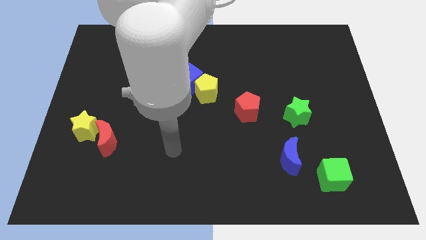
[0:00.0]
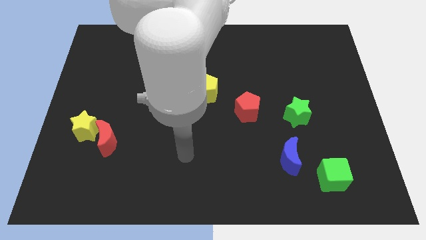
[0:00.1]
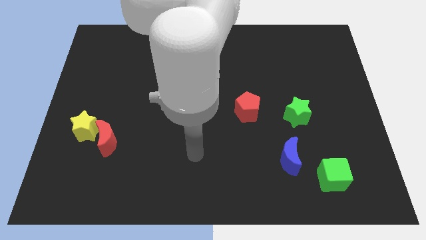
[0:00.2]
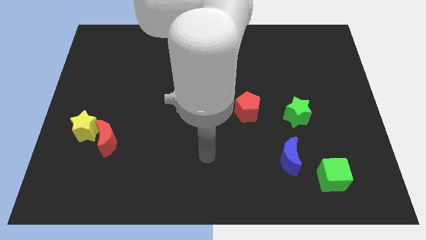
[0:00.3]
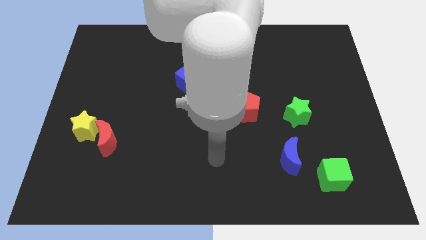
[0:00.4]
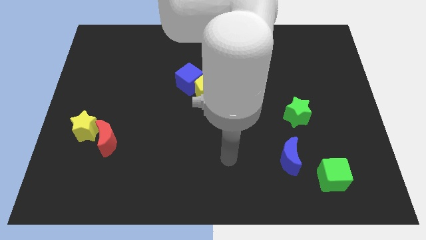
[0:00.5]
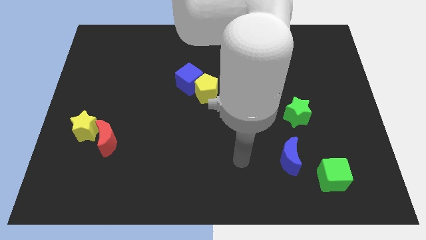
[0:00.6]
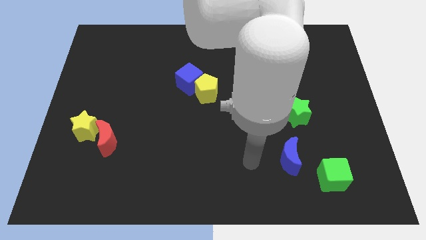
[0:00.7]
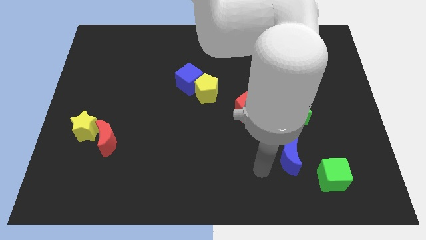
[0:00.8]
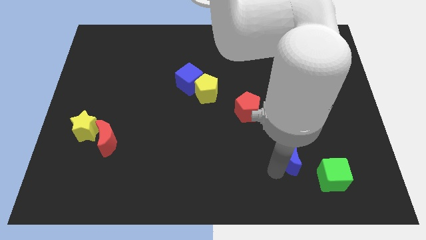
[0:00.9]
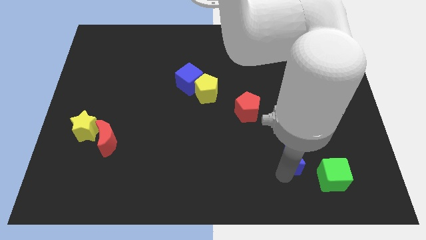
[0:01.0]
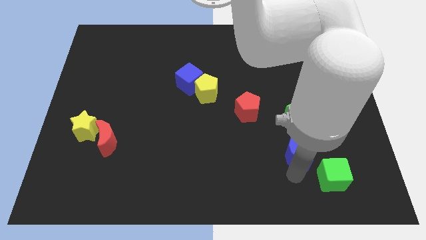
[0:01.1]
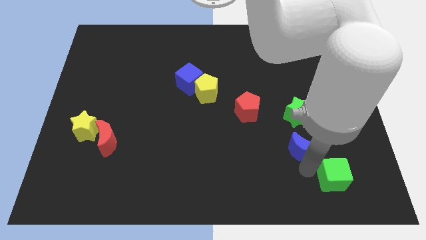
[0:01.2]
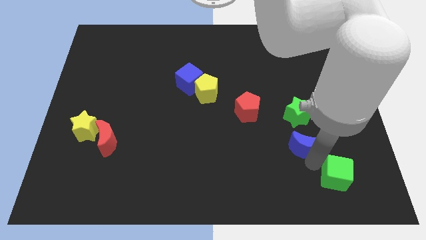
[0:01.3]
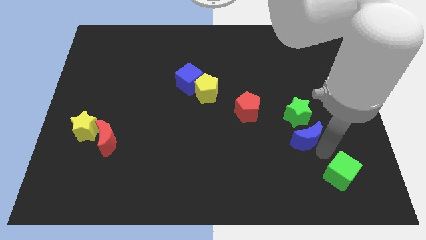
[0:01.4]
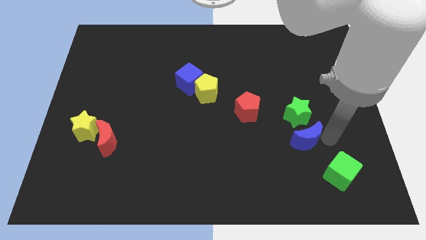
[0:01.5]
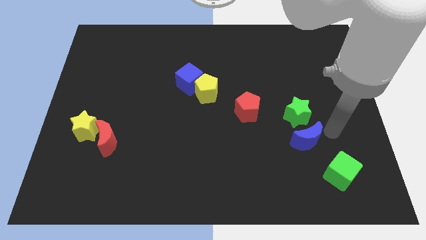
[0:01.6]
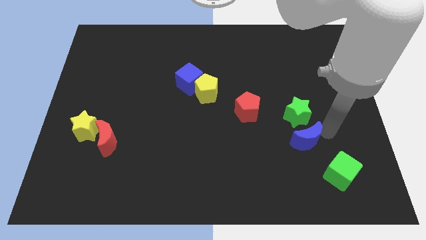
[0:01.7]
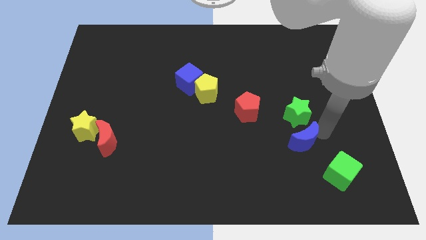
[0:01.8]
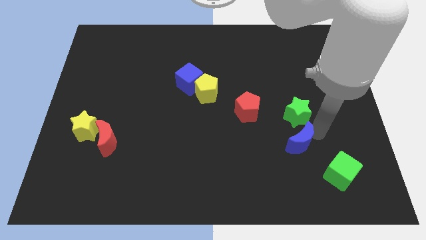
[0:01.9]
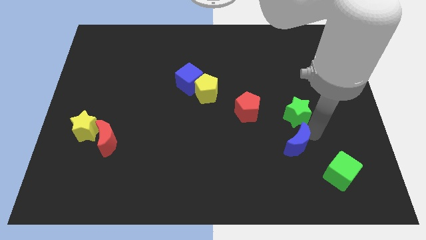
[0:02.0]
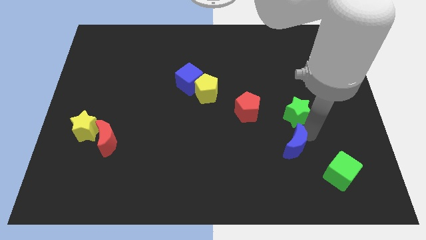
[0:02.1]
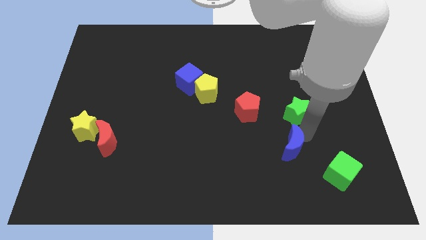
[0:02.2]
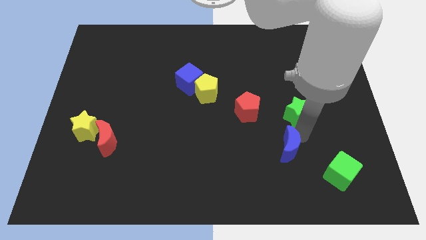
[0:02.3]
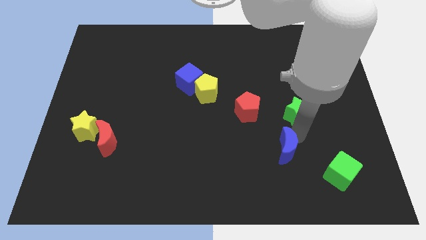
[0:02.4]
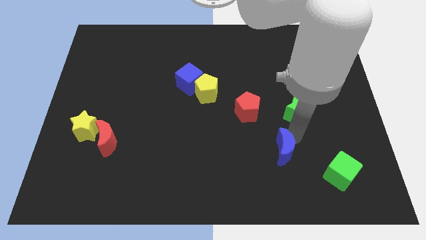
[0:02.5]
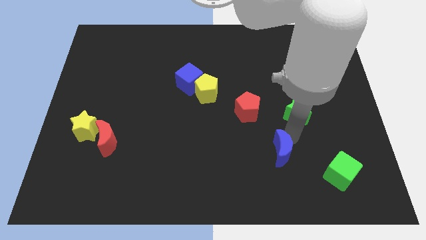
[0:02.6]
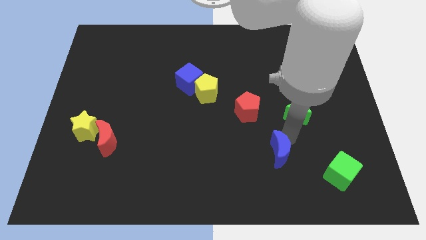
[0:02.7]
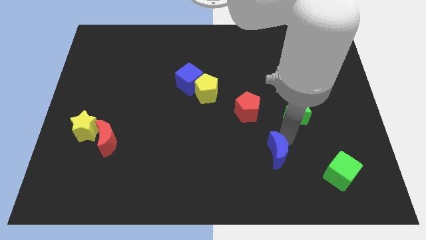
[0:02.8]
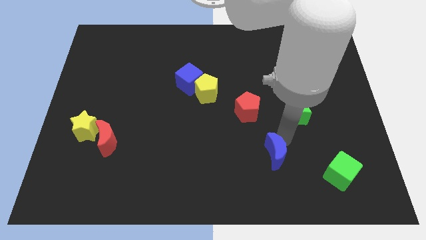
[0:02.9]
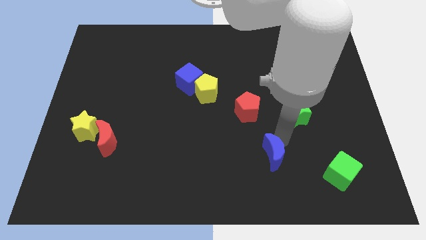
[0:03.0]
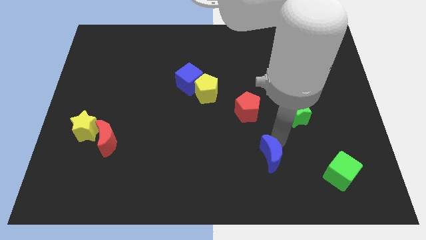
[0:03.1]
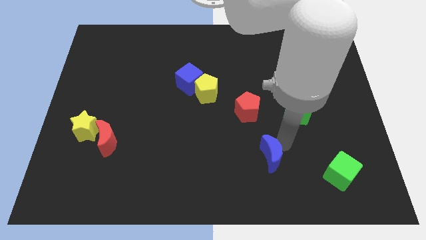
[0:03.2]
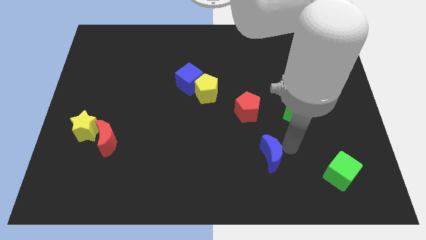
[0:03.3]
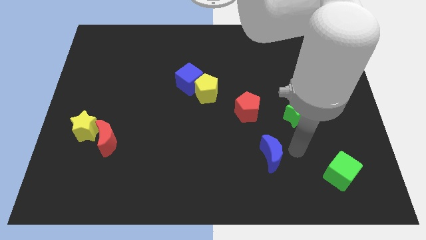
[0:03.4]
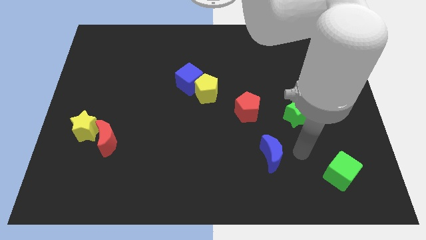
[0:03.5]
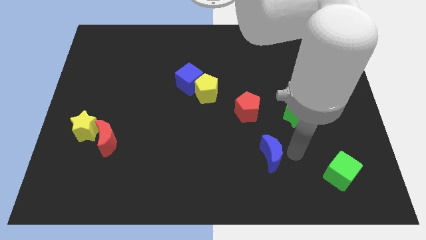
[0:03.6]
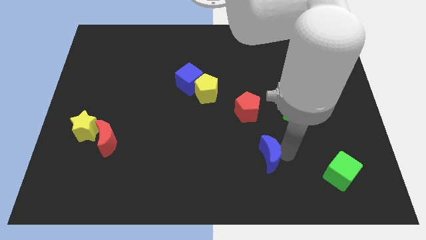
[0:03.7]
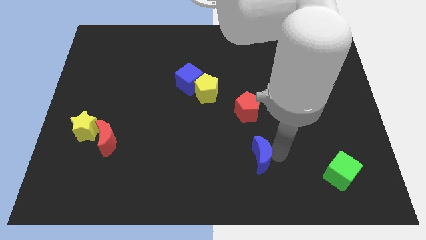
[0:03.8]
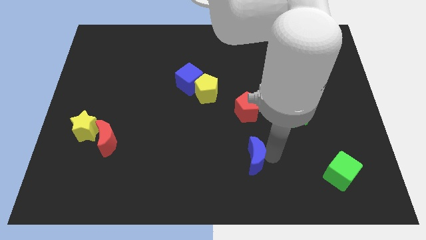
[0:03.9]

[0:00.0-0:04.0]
slightly slide the blue moon left

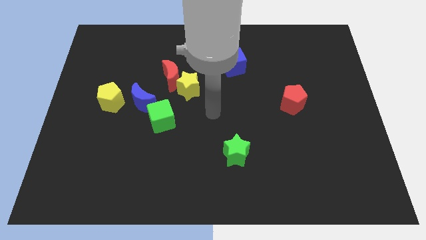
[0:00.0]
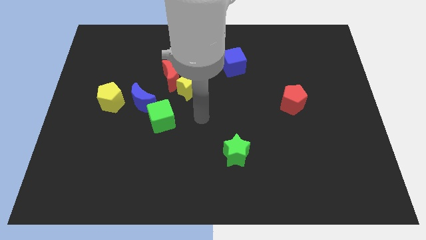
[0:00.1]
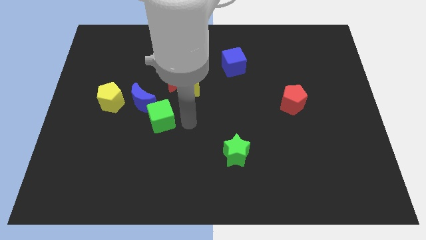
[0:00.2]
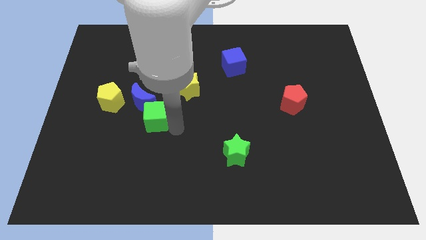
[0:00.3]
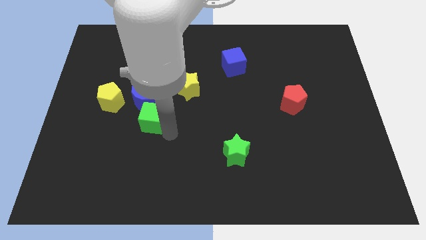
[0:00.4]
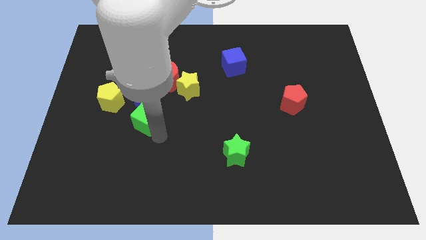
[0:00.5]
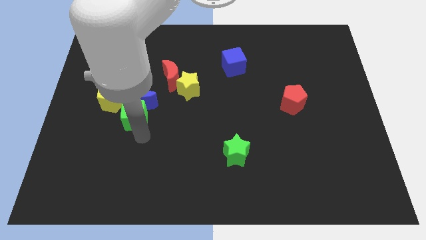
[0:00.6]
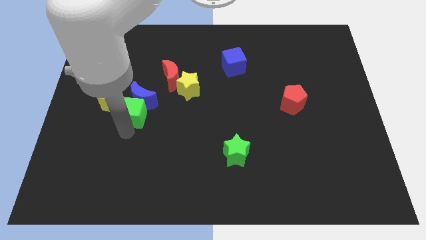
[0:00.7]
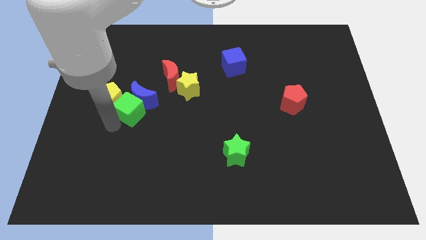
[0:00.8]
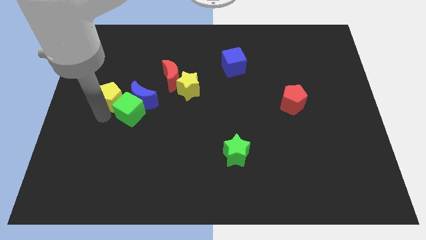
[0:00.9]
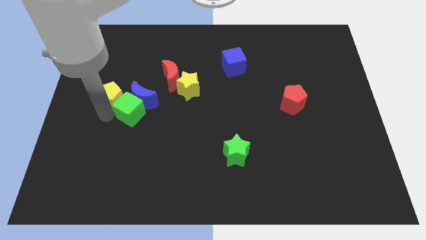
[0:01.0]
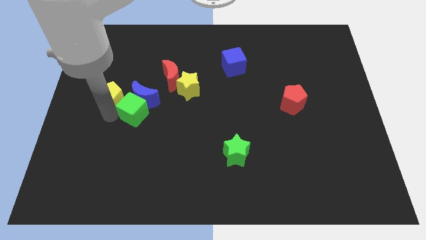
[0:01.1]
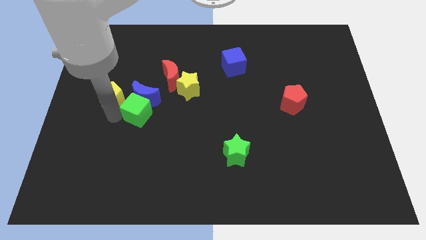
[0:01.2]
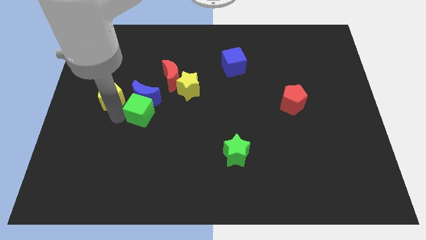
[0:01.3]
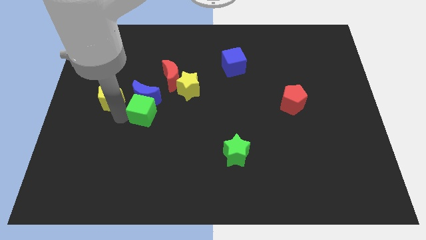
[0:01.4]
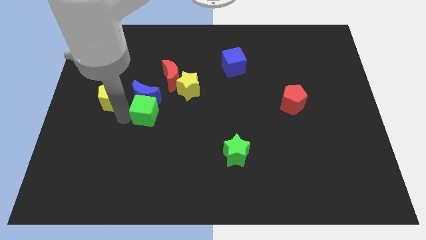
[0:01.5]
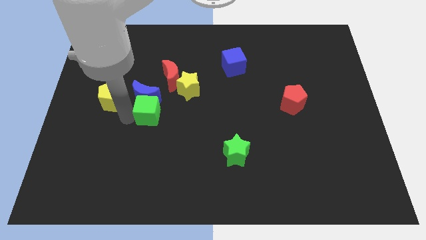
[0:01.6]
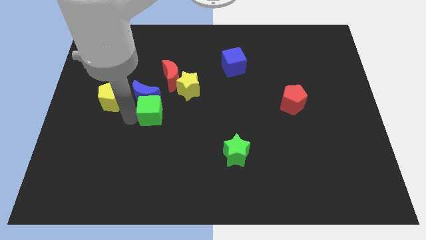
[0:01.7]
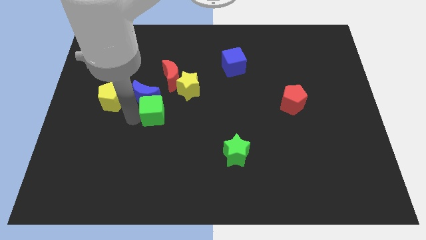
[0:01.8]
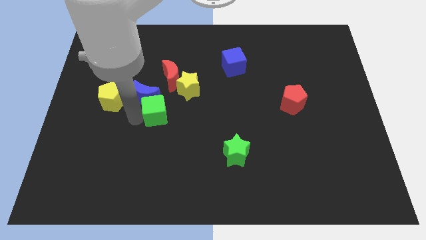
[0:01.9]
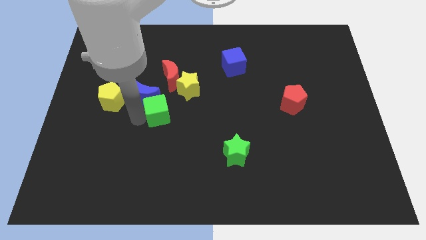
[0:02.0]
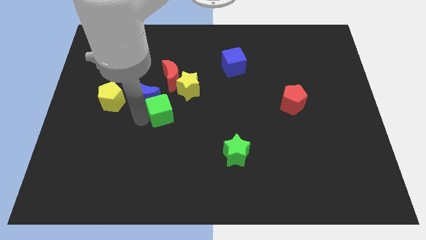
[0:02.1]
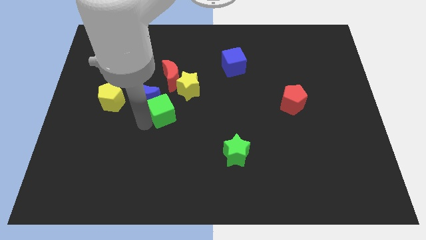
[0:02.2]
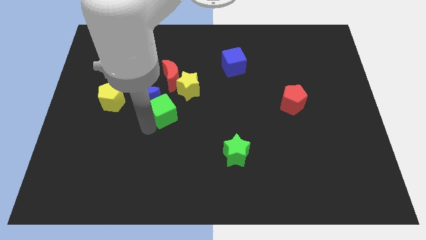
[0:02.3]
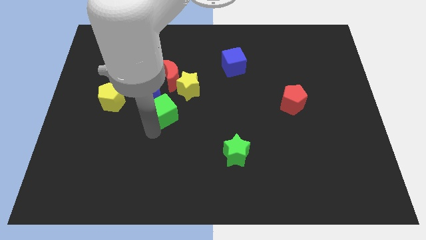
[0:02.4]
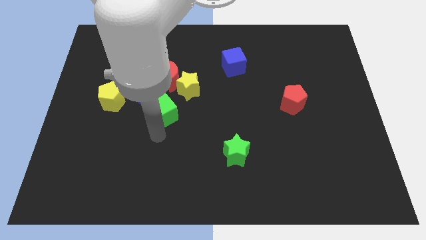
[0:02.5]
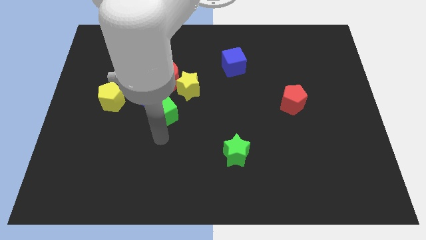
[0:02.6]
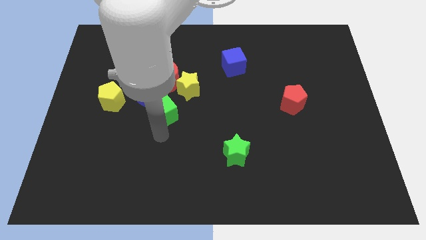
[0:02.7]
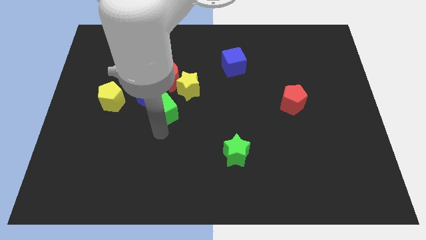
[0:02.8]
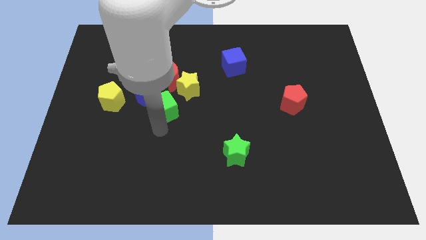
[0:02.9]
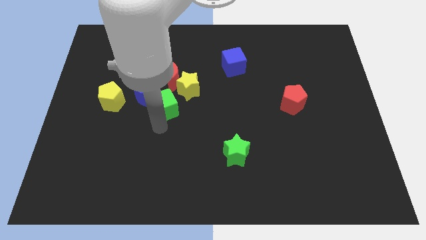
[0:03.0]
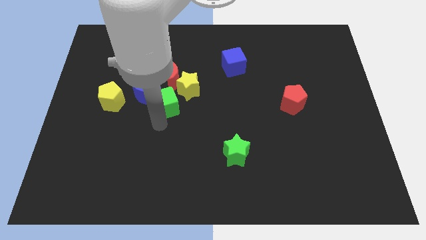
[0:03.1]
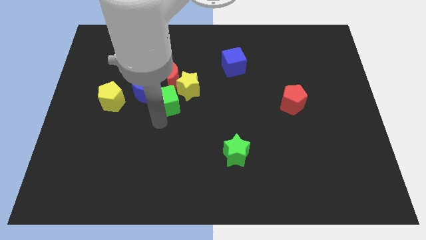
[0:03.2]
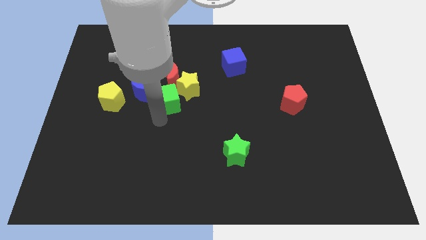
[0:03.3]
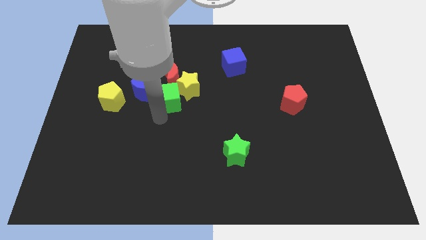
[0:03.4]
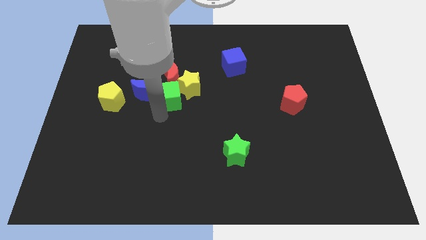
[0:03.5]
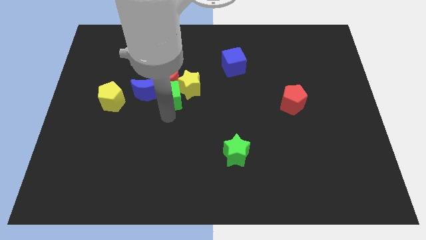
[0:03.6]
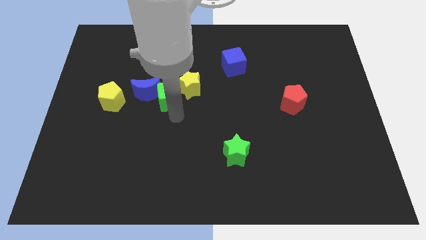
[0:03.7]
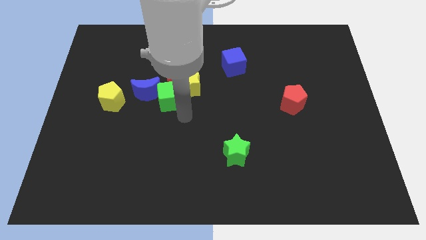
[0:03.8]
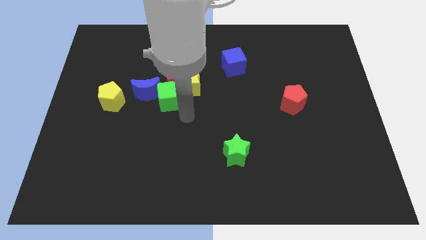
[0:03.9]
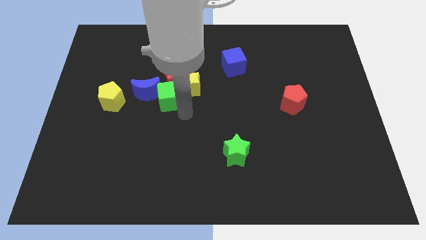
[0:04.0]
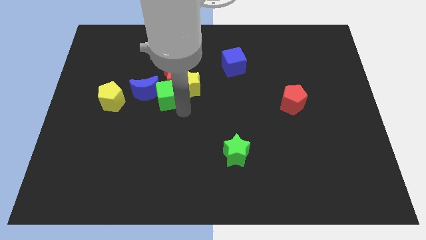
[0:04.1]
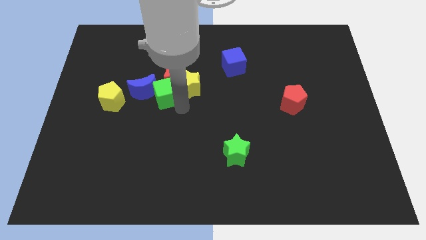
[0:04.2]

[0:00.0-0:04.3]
push the green cube a bit upwards
